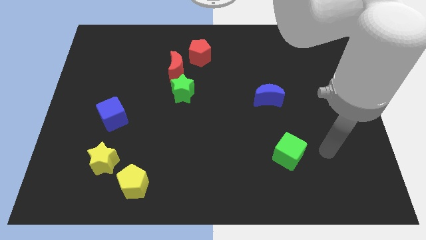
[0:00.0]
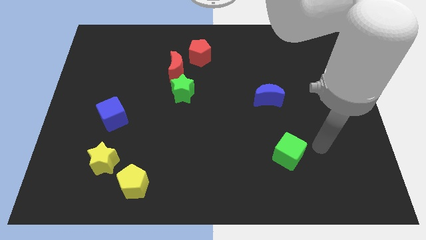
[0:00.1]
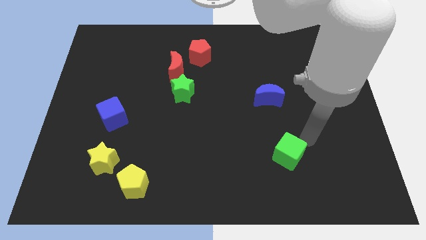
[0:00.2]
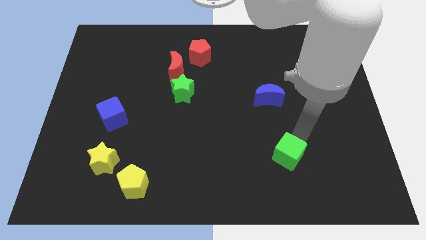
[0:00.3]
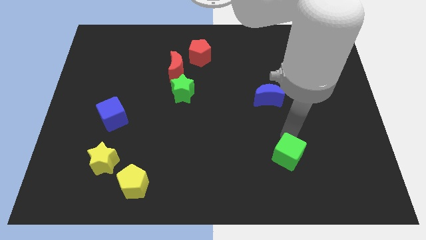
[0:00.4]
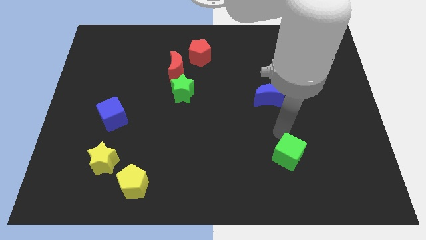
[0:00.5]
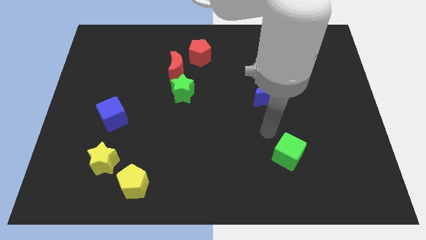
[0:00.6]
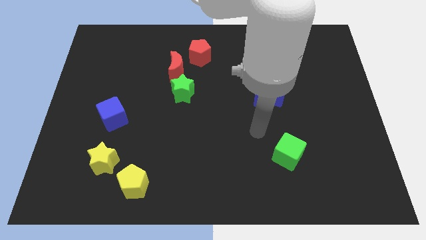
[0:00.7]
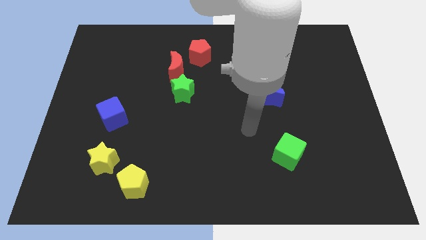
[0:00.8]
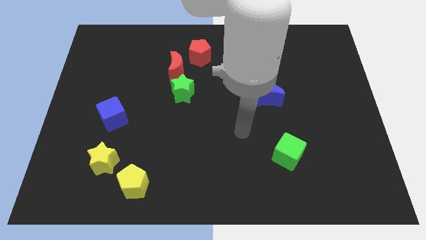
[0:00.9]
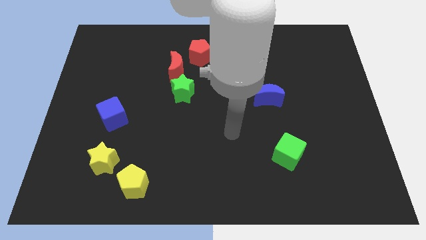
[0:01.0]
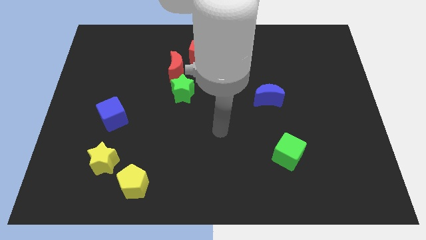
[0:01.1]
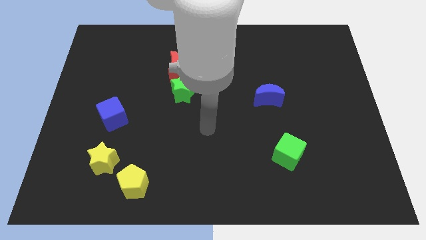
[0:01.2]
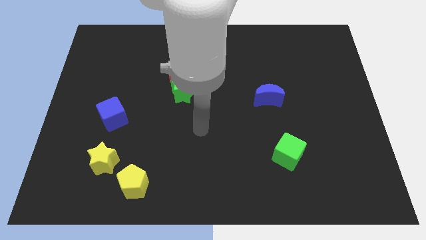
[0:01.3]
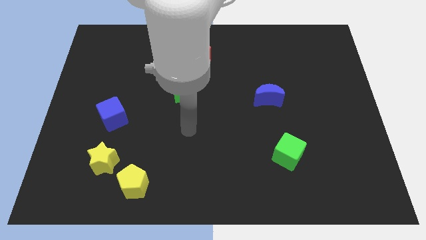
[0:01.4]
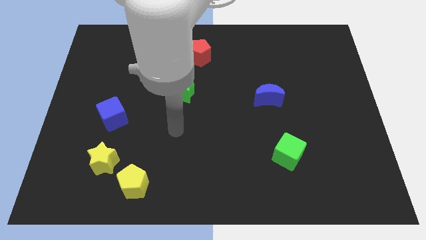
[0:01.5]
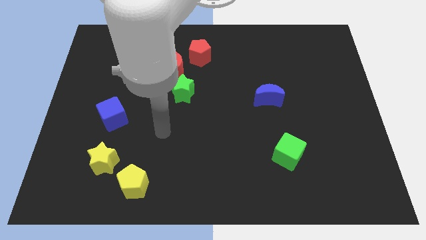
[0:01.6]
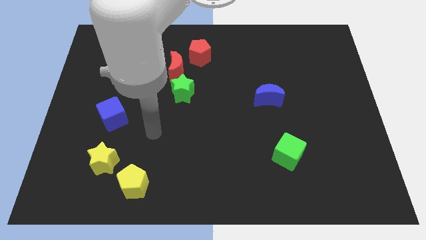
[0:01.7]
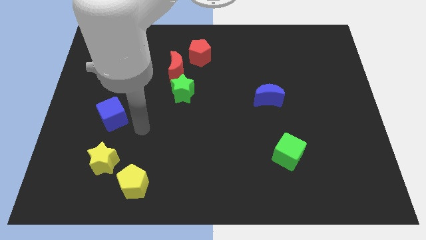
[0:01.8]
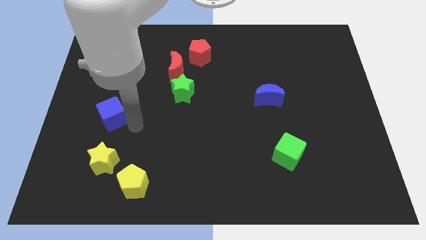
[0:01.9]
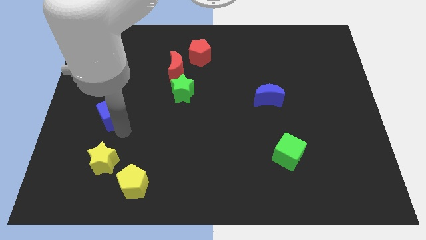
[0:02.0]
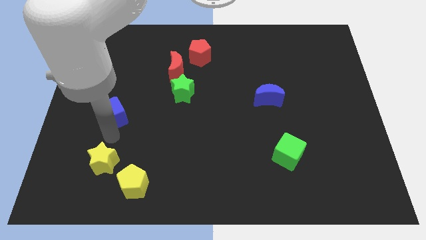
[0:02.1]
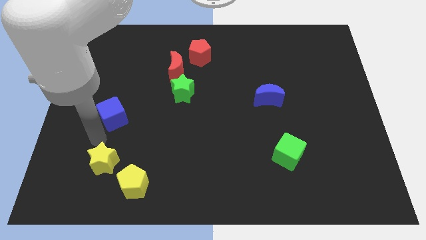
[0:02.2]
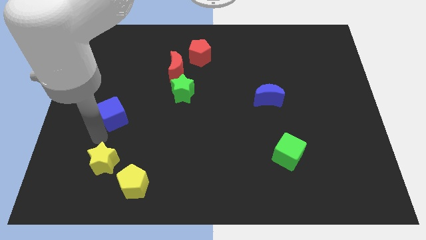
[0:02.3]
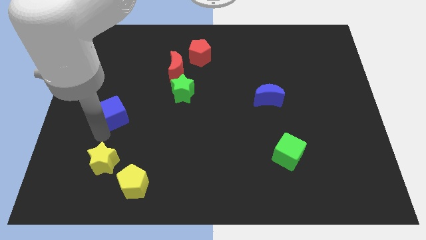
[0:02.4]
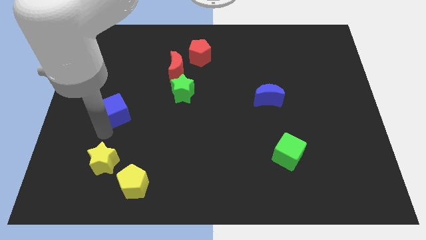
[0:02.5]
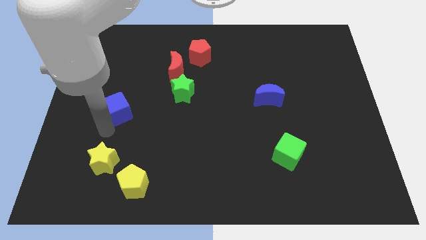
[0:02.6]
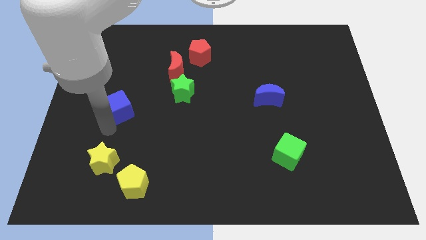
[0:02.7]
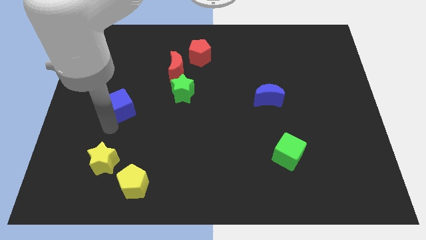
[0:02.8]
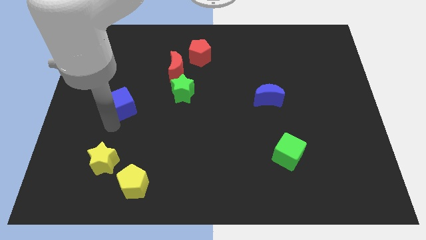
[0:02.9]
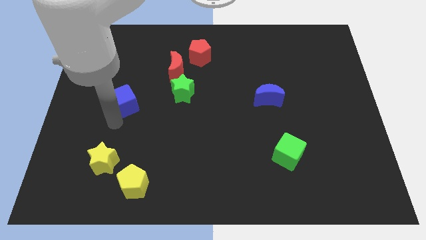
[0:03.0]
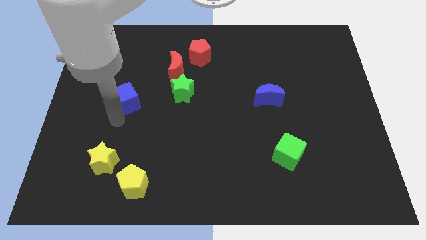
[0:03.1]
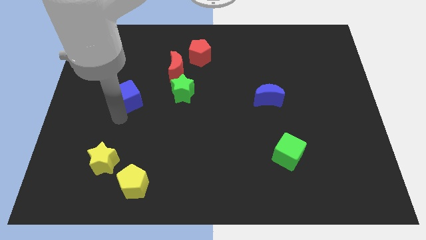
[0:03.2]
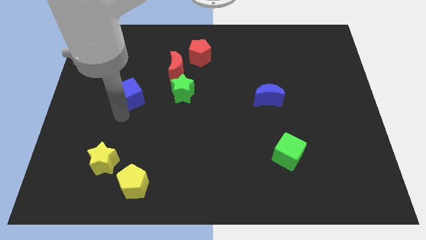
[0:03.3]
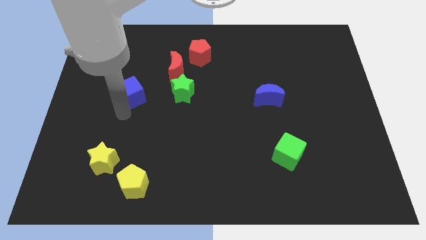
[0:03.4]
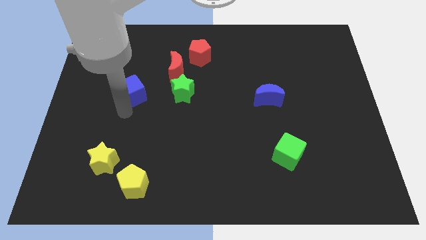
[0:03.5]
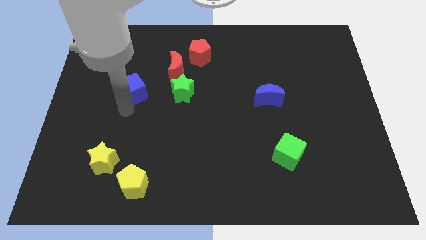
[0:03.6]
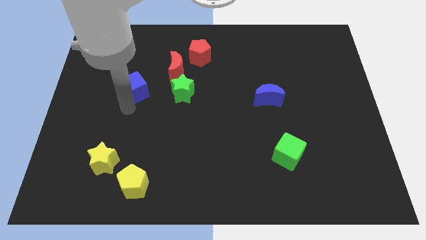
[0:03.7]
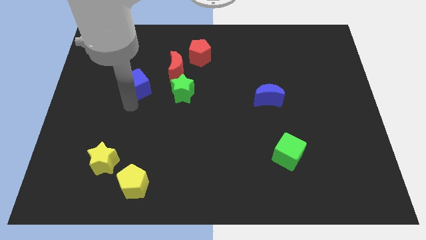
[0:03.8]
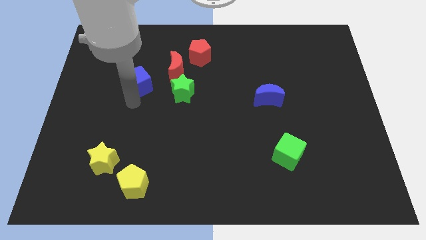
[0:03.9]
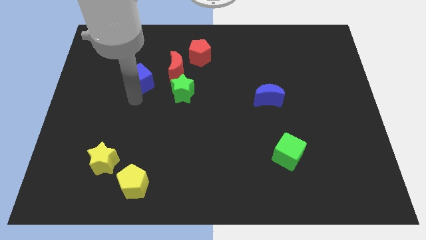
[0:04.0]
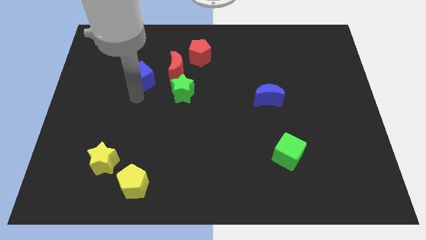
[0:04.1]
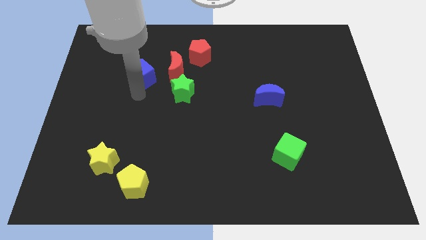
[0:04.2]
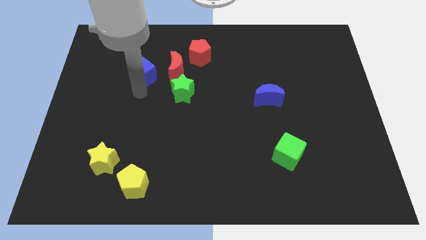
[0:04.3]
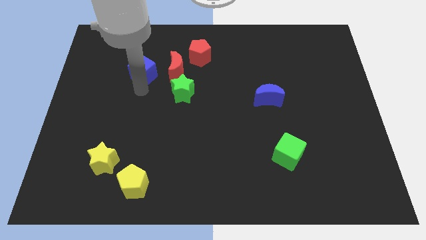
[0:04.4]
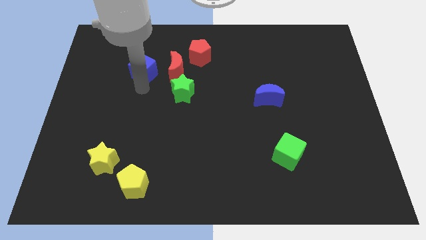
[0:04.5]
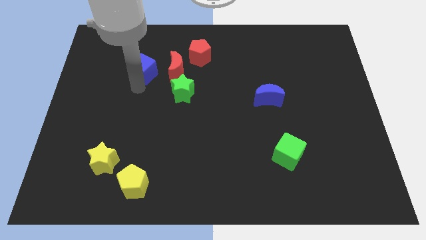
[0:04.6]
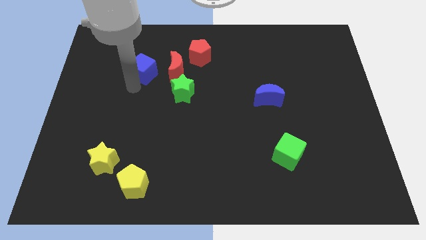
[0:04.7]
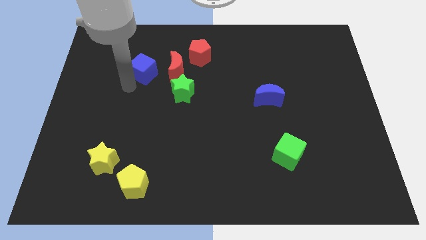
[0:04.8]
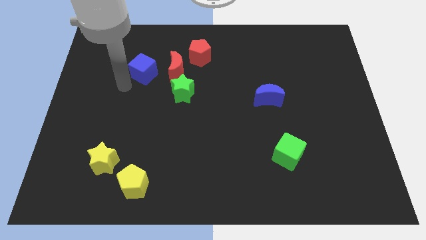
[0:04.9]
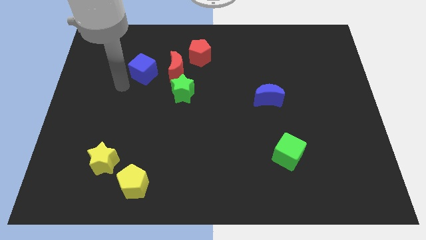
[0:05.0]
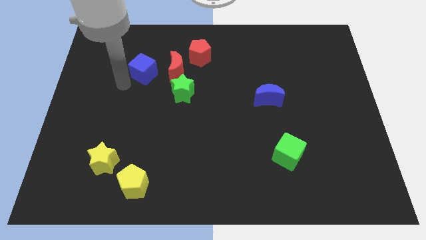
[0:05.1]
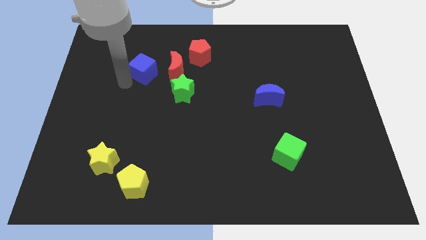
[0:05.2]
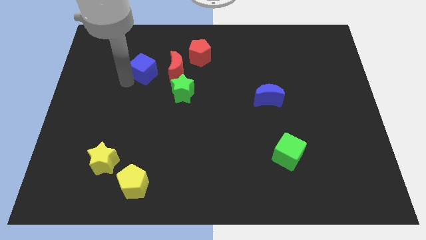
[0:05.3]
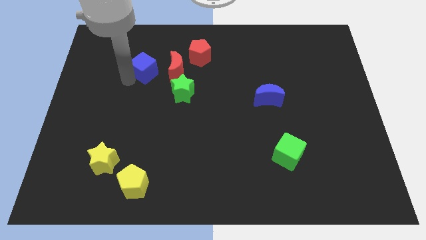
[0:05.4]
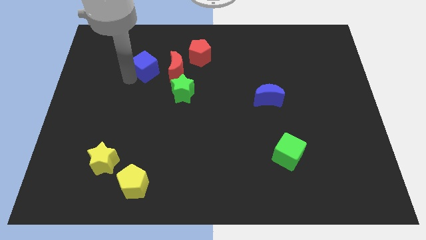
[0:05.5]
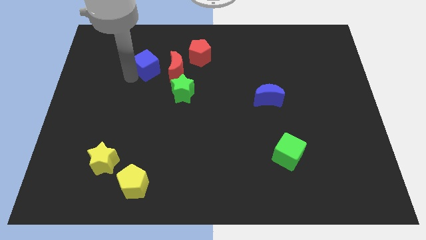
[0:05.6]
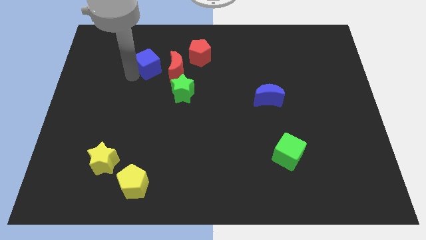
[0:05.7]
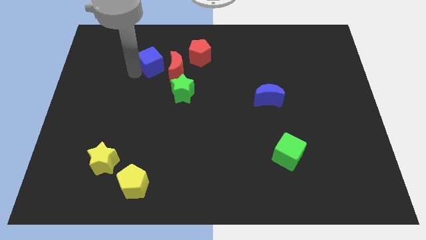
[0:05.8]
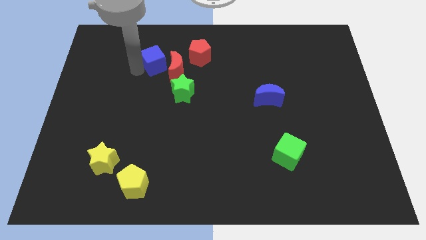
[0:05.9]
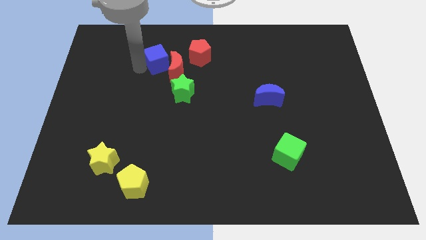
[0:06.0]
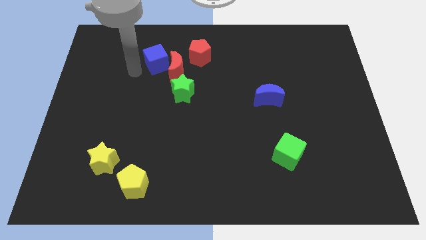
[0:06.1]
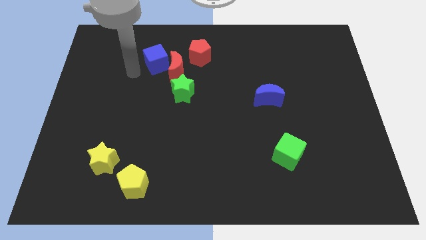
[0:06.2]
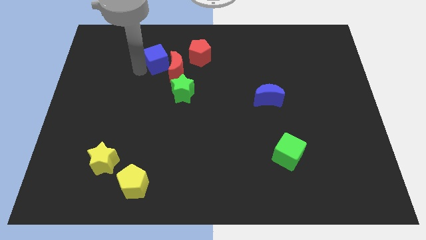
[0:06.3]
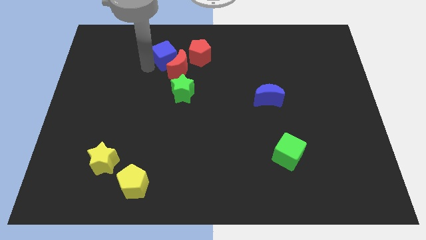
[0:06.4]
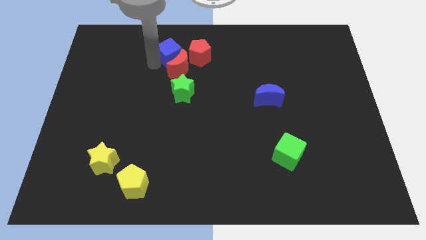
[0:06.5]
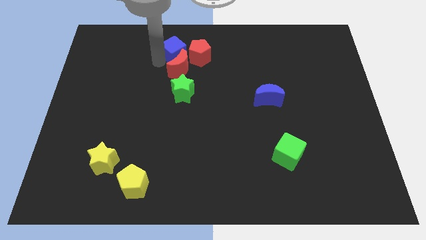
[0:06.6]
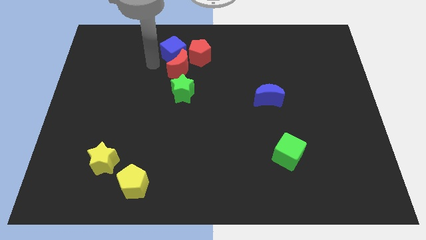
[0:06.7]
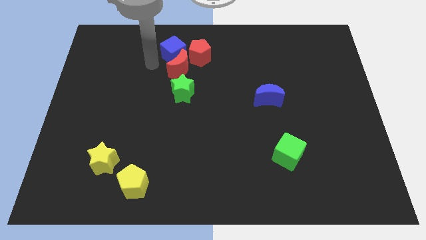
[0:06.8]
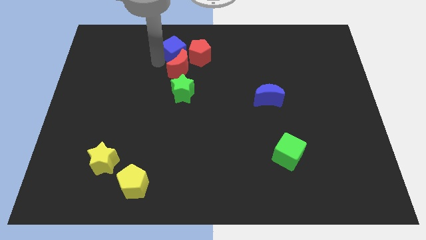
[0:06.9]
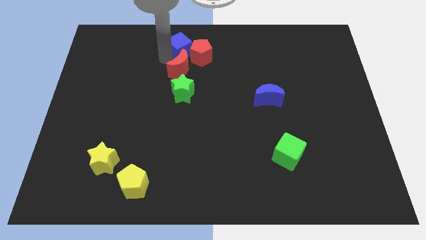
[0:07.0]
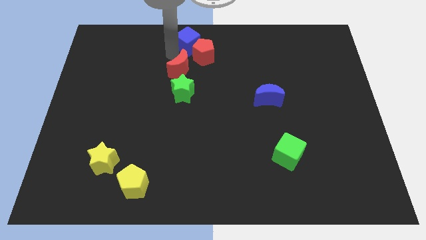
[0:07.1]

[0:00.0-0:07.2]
put the blue cube to the top

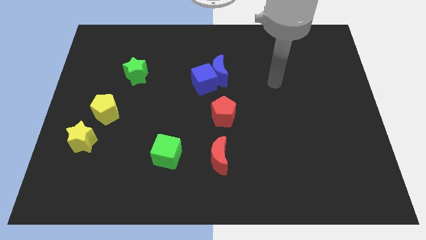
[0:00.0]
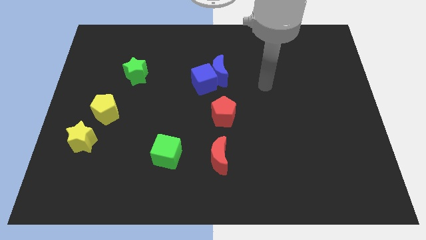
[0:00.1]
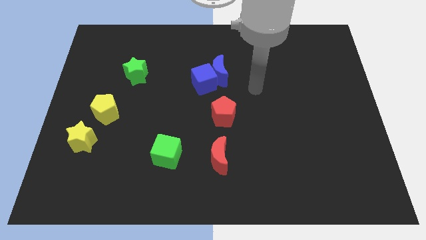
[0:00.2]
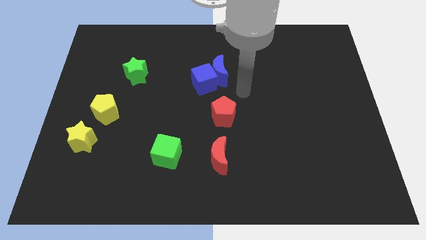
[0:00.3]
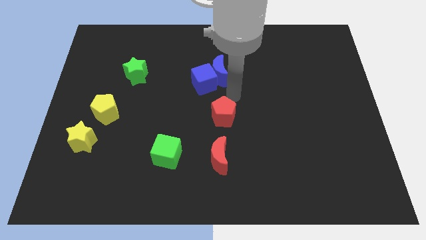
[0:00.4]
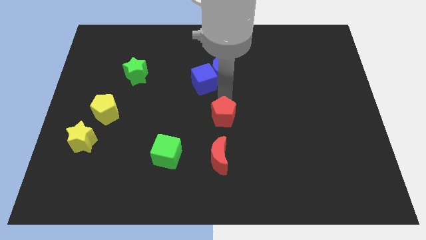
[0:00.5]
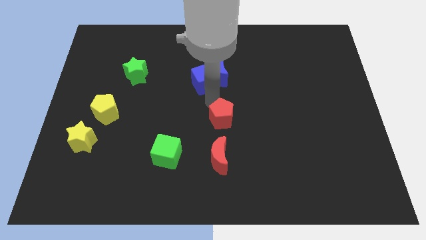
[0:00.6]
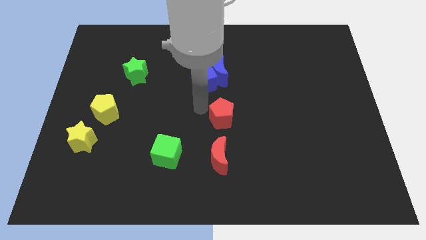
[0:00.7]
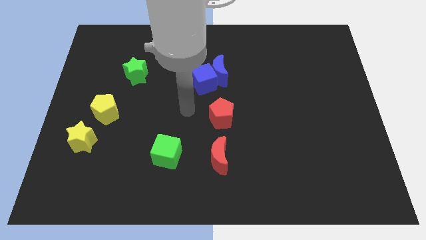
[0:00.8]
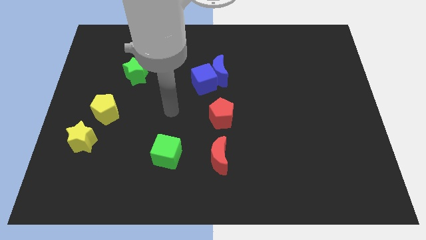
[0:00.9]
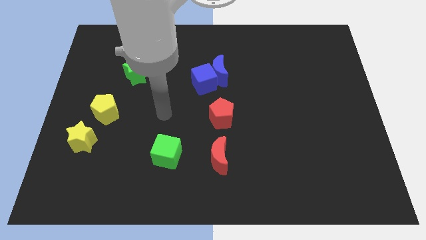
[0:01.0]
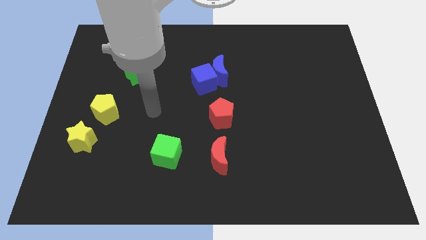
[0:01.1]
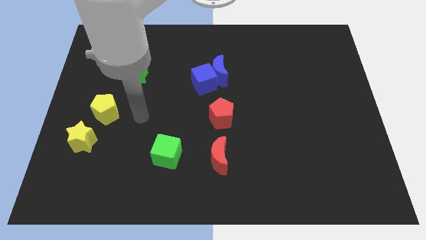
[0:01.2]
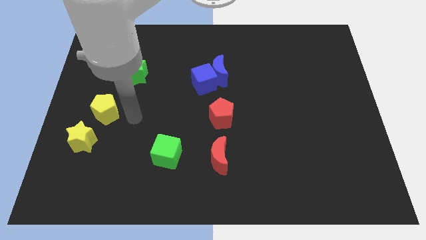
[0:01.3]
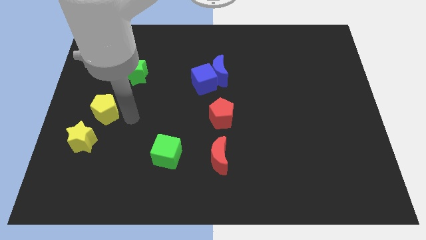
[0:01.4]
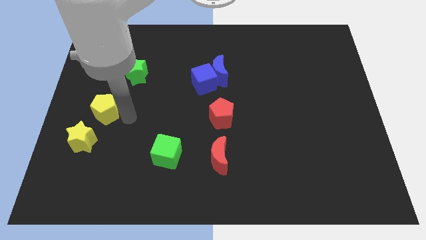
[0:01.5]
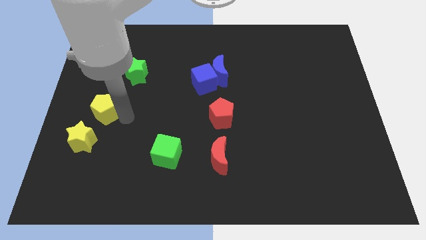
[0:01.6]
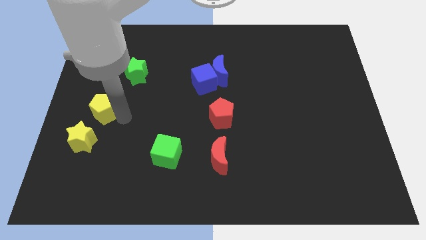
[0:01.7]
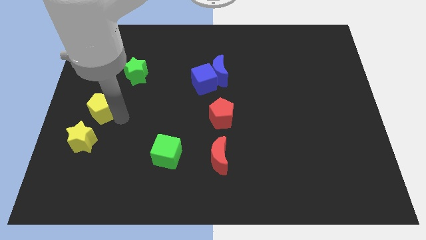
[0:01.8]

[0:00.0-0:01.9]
move the yellow pentagon to the left side
